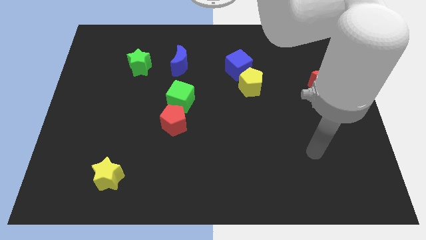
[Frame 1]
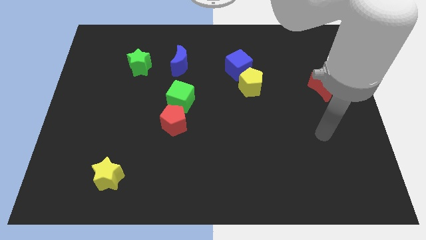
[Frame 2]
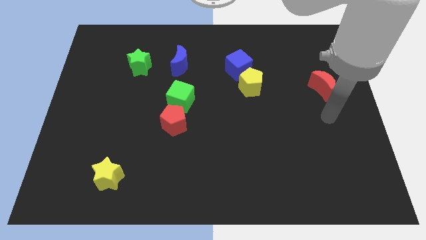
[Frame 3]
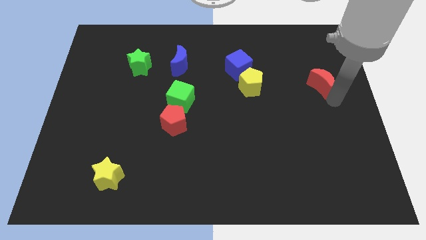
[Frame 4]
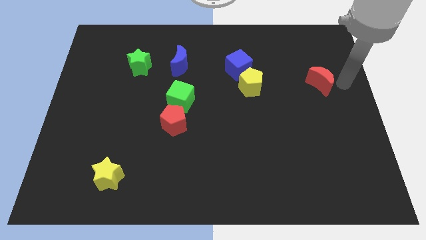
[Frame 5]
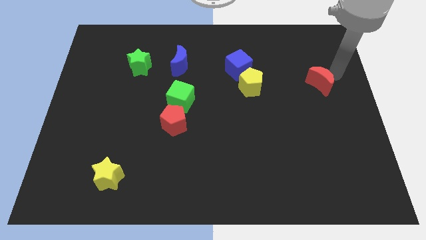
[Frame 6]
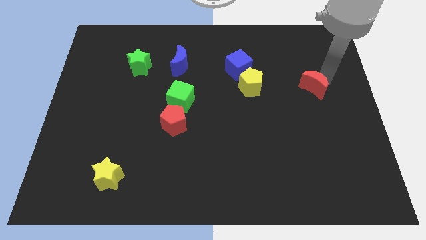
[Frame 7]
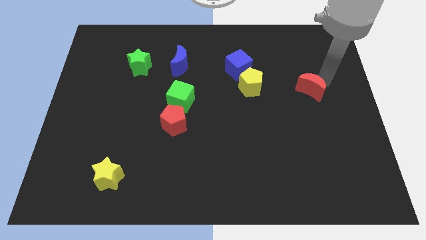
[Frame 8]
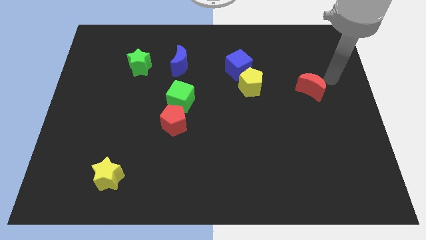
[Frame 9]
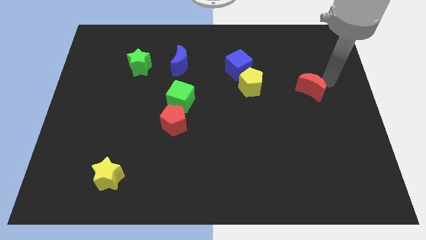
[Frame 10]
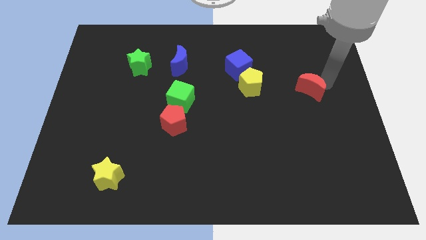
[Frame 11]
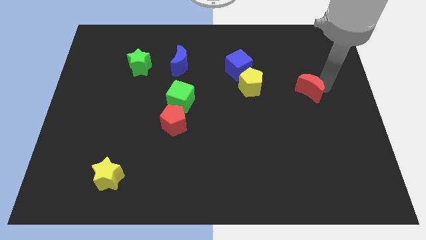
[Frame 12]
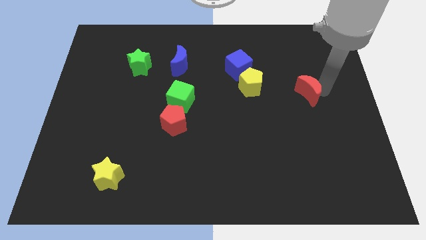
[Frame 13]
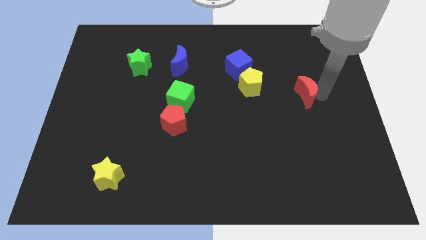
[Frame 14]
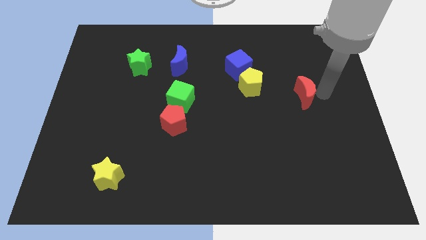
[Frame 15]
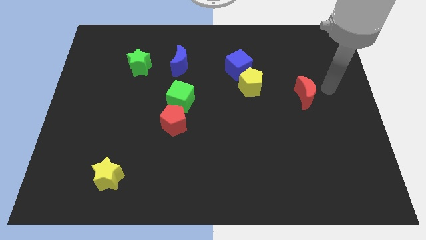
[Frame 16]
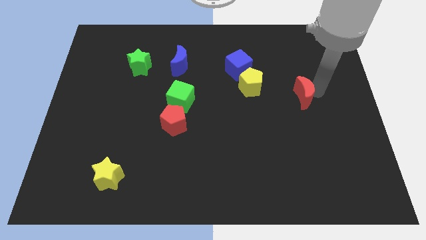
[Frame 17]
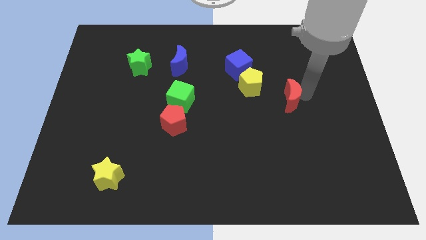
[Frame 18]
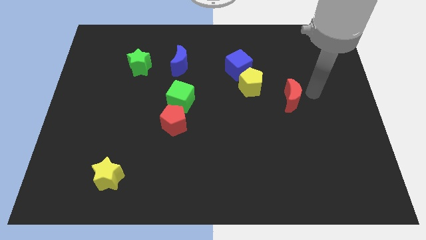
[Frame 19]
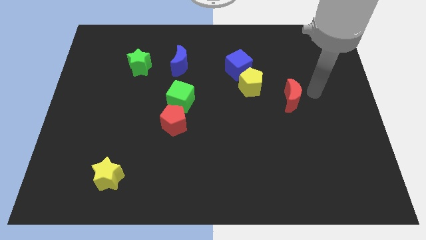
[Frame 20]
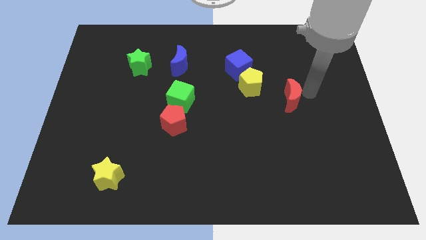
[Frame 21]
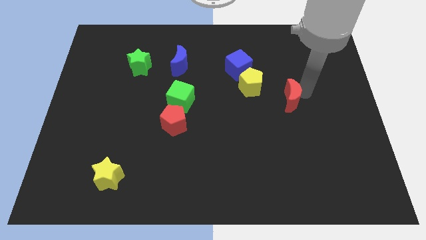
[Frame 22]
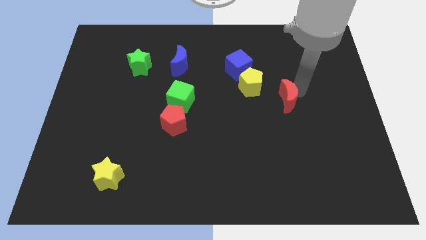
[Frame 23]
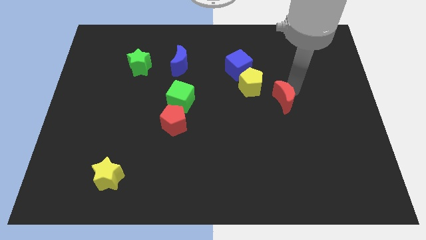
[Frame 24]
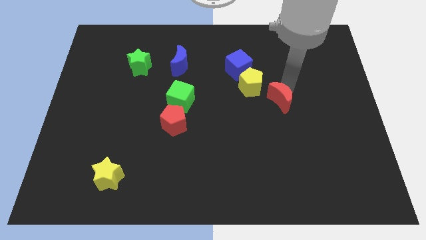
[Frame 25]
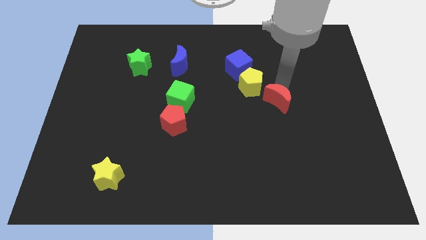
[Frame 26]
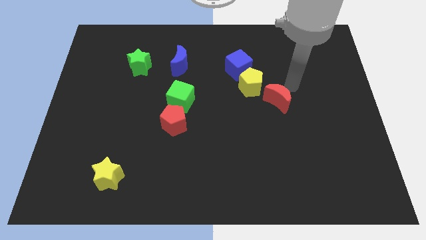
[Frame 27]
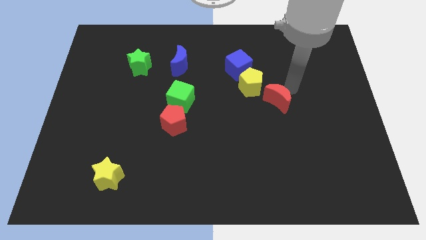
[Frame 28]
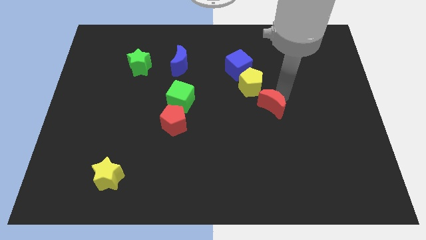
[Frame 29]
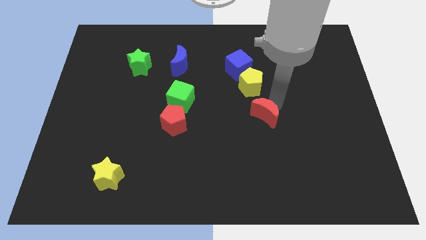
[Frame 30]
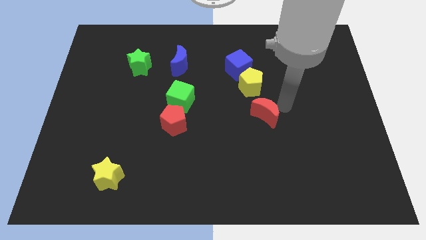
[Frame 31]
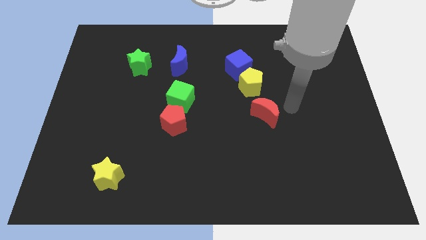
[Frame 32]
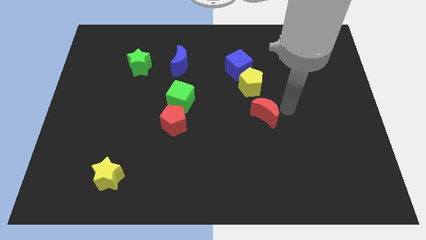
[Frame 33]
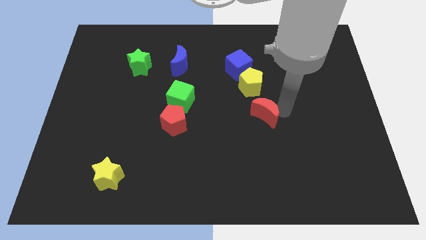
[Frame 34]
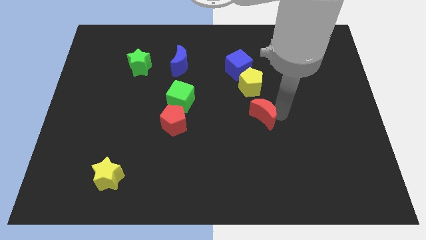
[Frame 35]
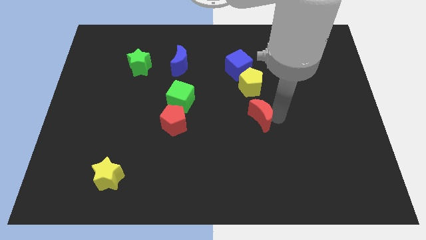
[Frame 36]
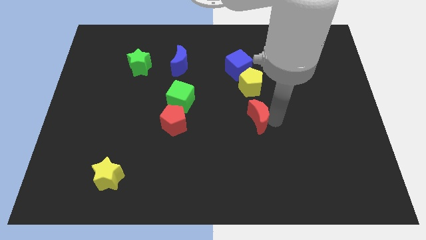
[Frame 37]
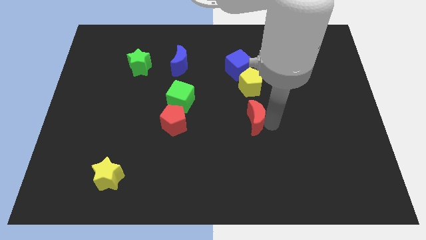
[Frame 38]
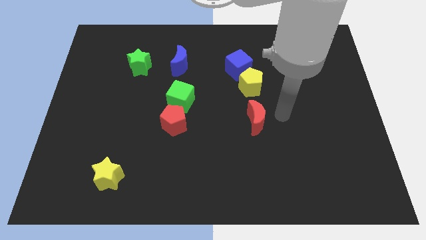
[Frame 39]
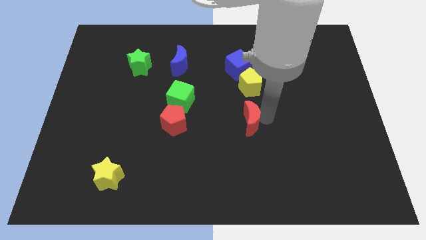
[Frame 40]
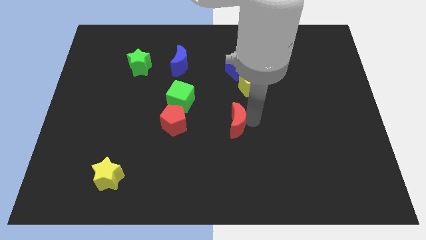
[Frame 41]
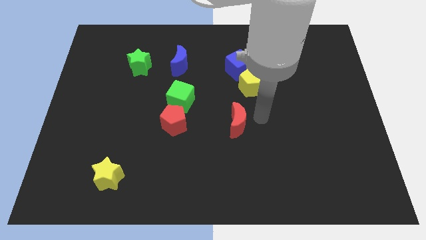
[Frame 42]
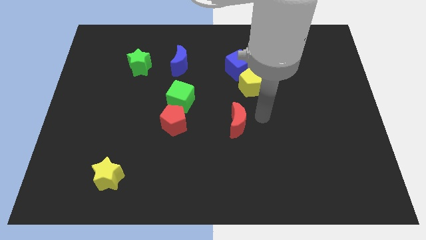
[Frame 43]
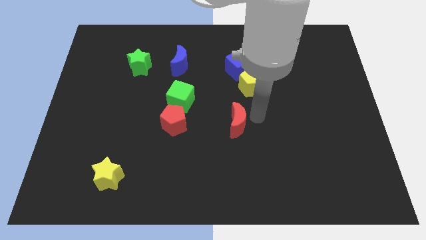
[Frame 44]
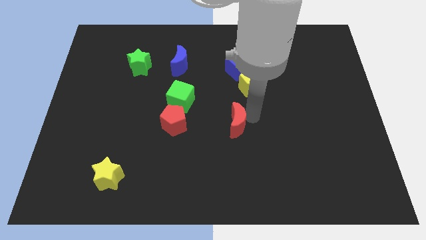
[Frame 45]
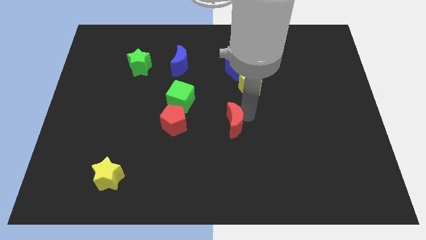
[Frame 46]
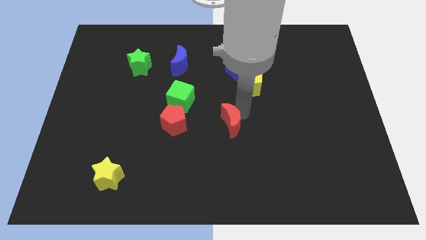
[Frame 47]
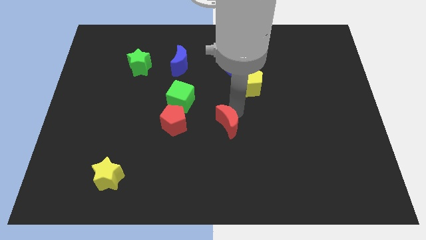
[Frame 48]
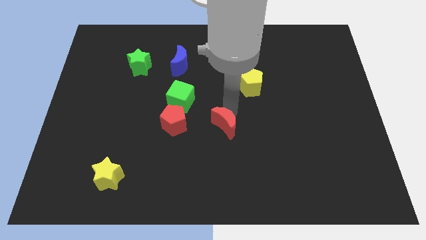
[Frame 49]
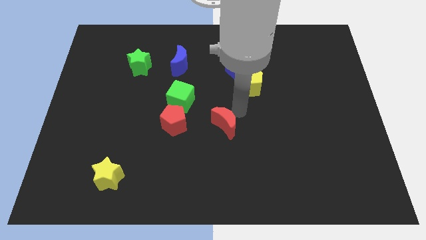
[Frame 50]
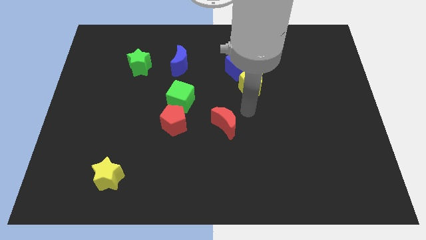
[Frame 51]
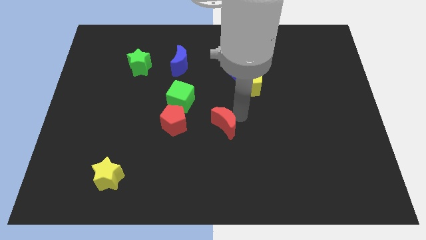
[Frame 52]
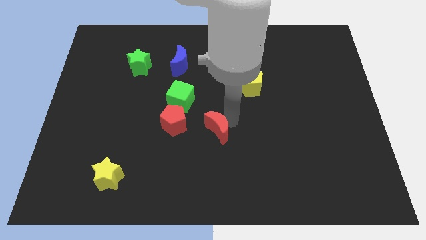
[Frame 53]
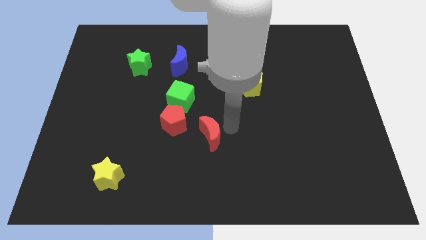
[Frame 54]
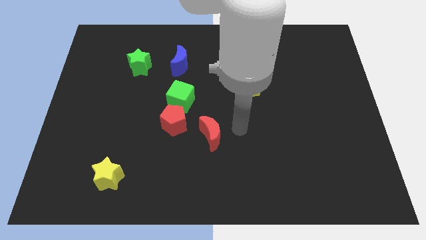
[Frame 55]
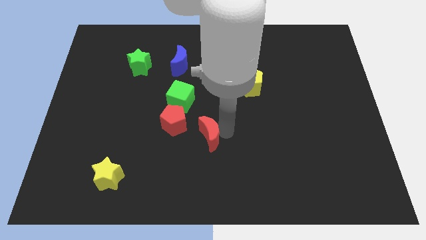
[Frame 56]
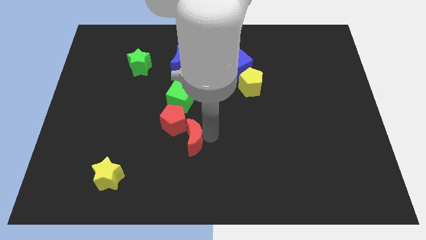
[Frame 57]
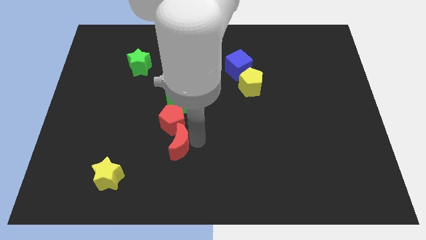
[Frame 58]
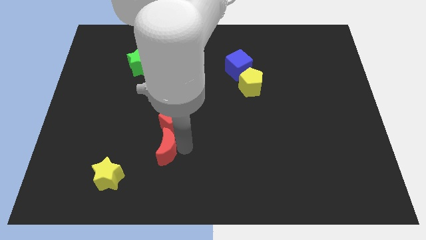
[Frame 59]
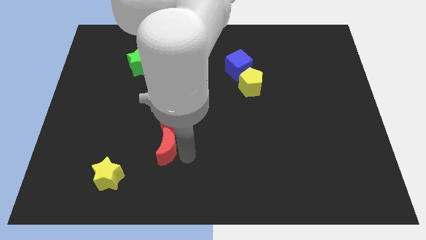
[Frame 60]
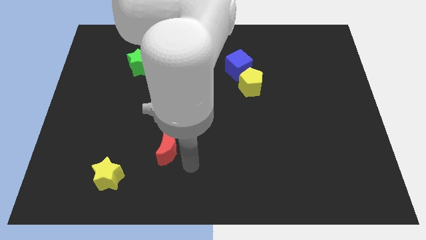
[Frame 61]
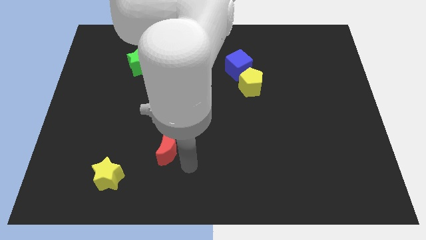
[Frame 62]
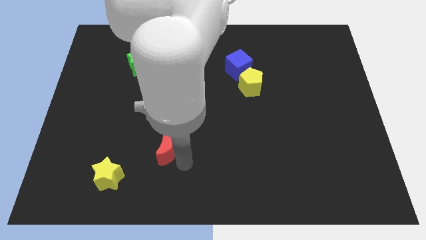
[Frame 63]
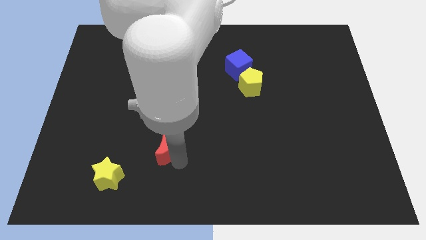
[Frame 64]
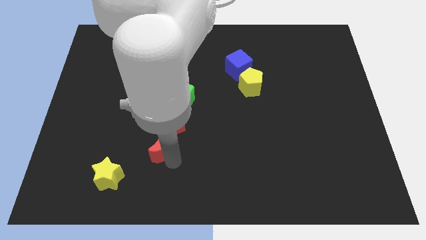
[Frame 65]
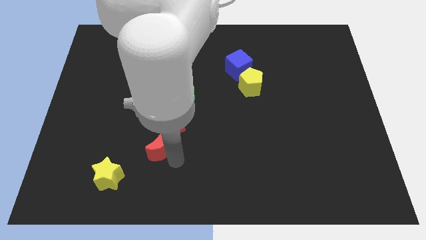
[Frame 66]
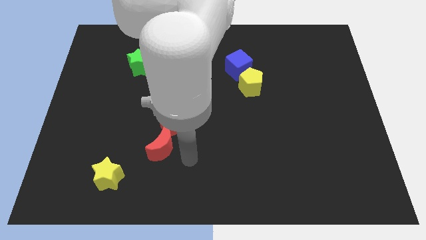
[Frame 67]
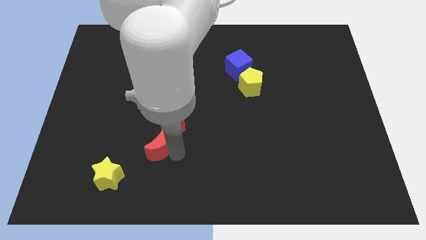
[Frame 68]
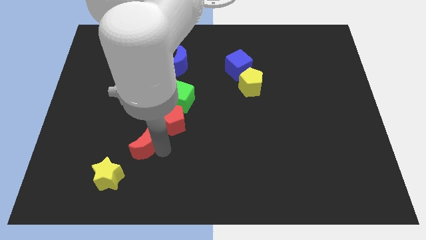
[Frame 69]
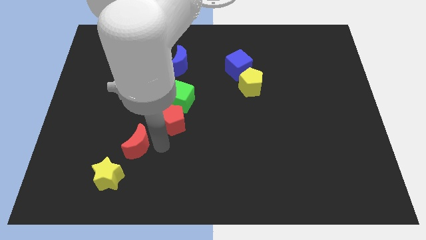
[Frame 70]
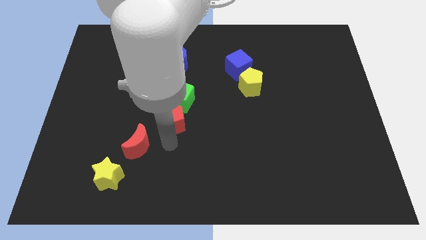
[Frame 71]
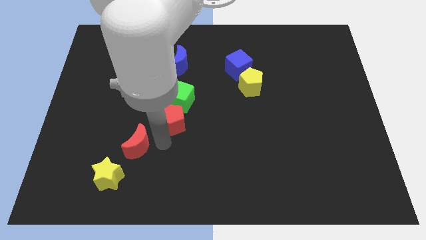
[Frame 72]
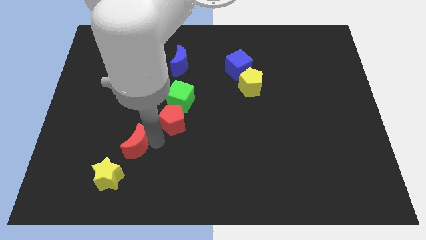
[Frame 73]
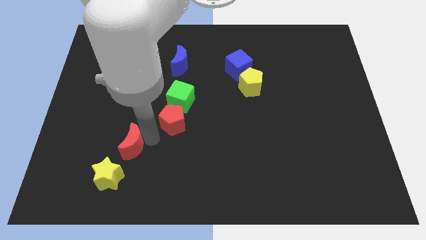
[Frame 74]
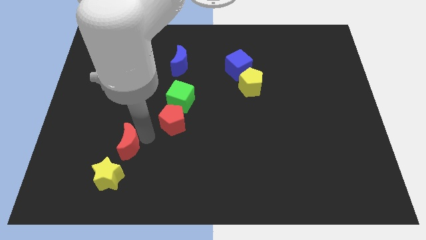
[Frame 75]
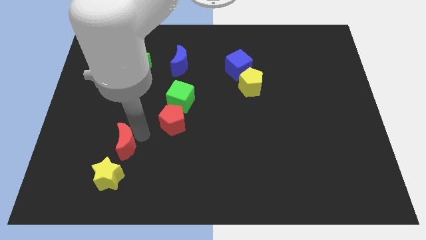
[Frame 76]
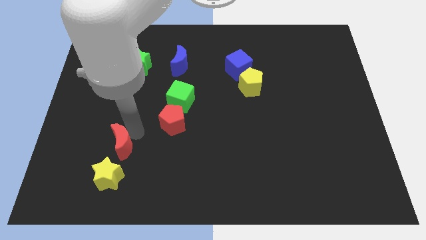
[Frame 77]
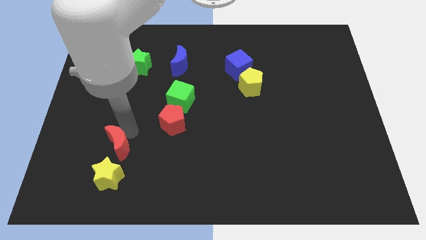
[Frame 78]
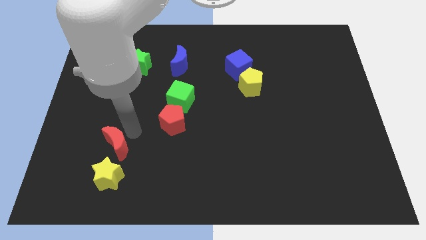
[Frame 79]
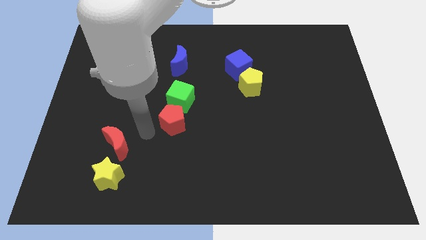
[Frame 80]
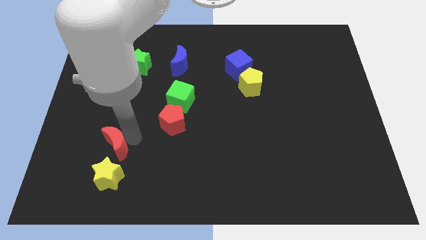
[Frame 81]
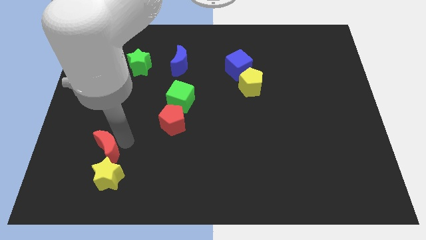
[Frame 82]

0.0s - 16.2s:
put the red moon to the top left of the yellow star
